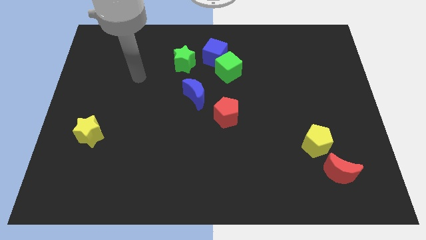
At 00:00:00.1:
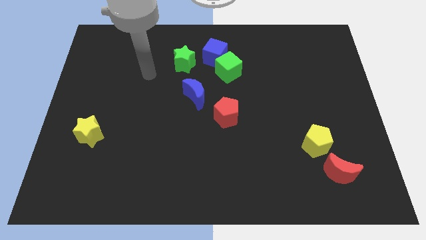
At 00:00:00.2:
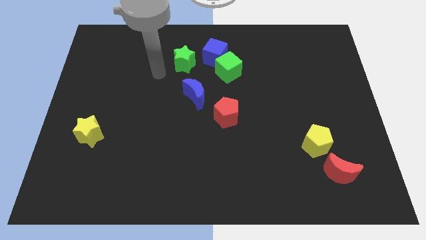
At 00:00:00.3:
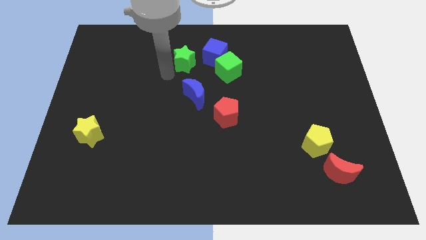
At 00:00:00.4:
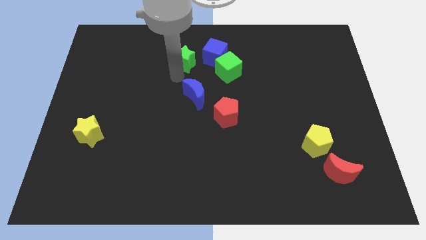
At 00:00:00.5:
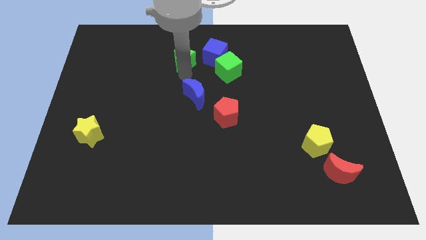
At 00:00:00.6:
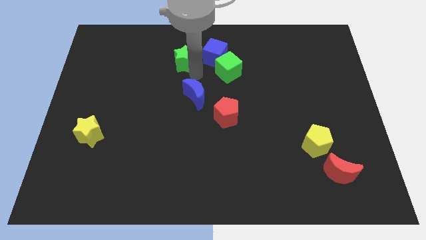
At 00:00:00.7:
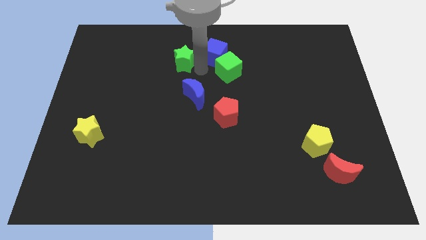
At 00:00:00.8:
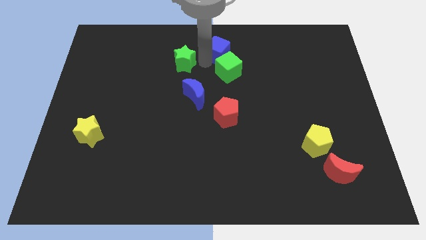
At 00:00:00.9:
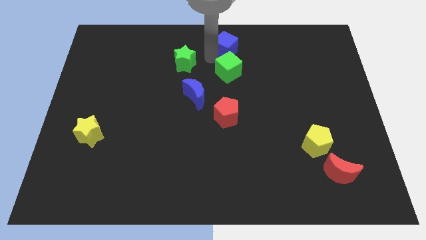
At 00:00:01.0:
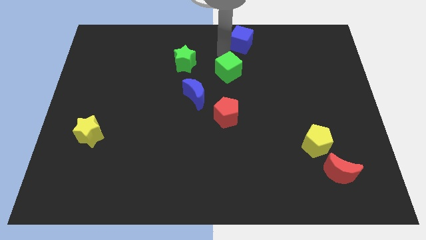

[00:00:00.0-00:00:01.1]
separate the green cube from the blue cube

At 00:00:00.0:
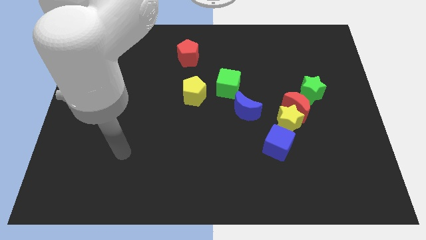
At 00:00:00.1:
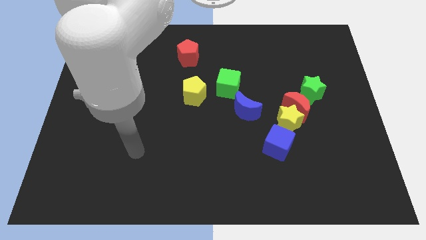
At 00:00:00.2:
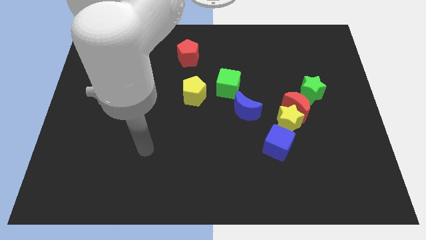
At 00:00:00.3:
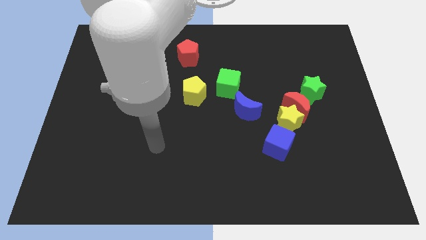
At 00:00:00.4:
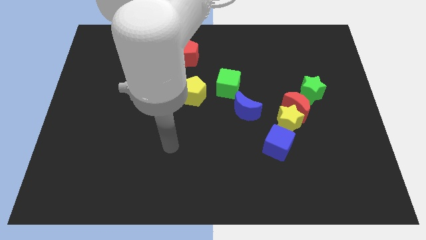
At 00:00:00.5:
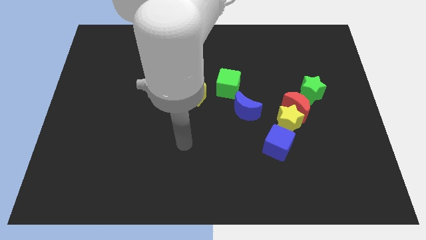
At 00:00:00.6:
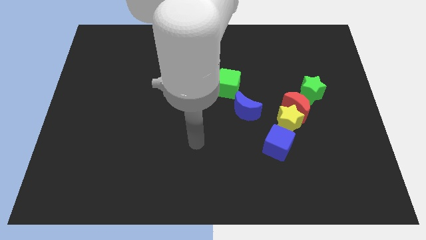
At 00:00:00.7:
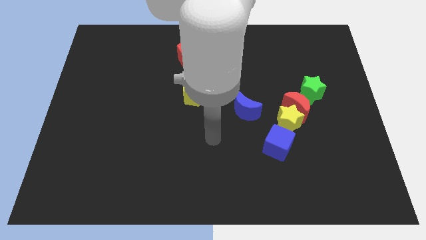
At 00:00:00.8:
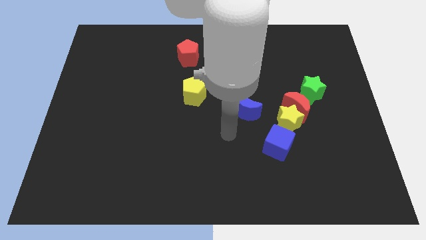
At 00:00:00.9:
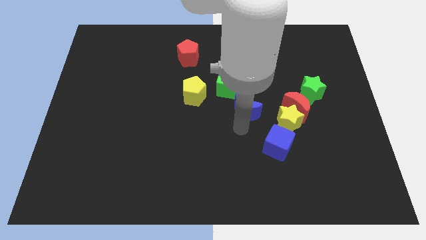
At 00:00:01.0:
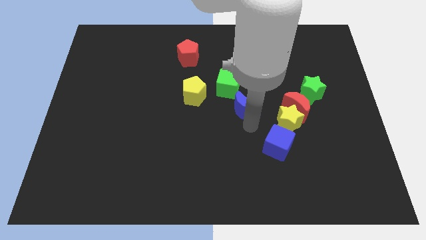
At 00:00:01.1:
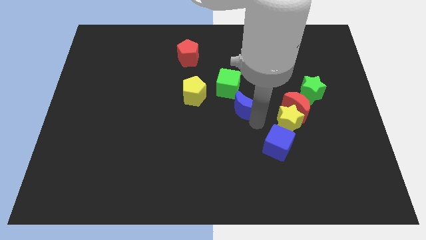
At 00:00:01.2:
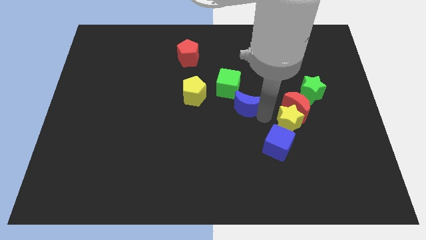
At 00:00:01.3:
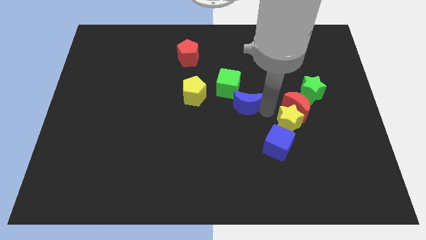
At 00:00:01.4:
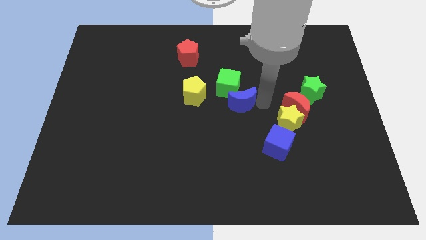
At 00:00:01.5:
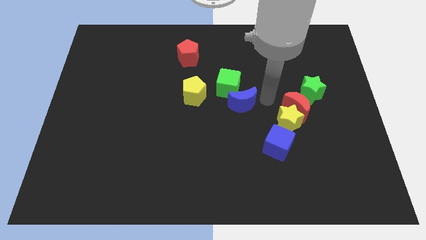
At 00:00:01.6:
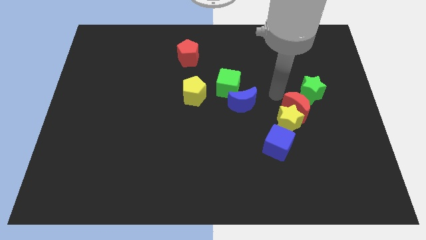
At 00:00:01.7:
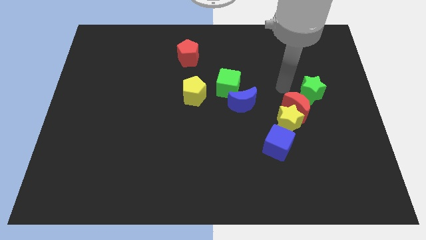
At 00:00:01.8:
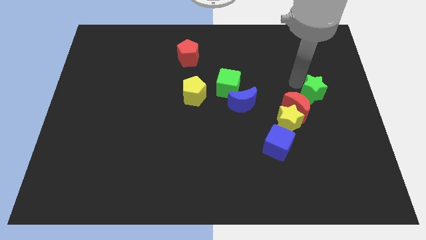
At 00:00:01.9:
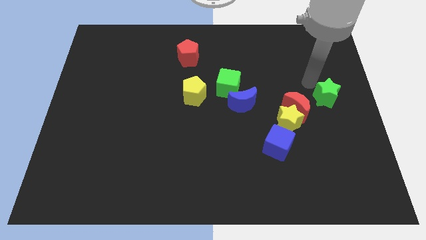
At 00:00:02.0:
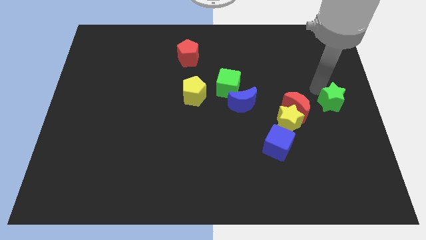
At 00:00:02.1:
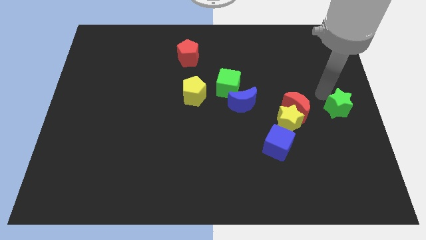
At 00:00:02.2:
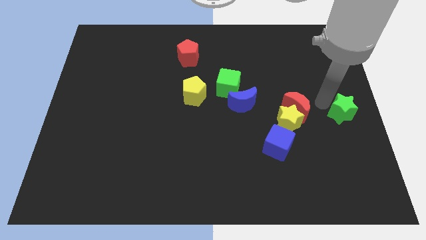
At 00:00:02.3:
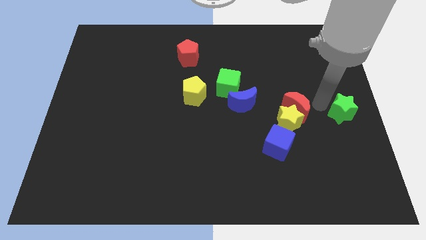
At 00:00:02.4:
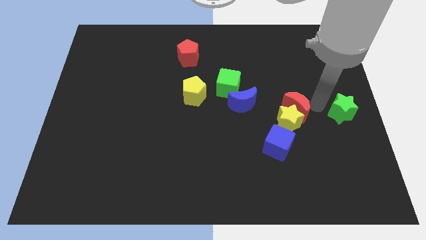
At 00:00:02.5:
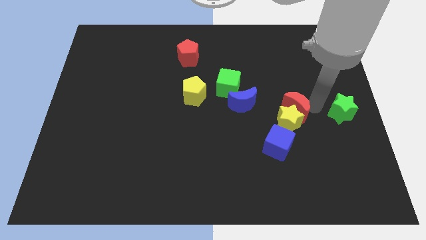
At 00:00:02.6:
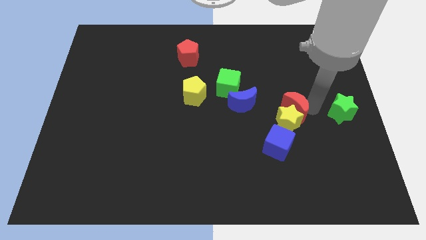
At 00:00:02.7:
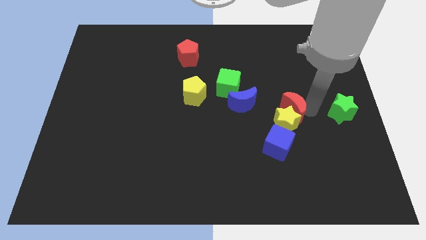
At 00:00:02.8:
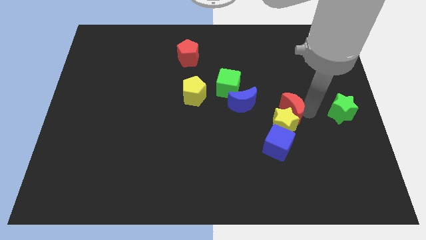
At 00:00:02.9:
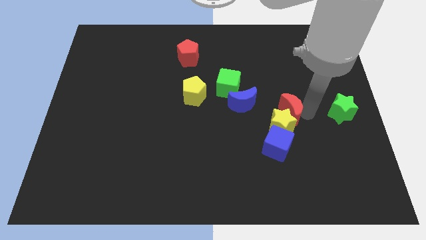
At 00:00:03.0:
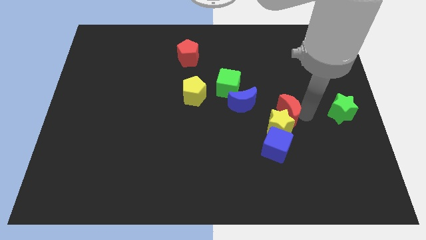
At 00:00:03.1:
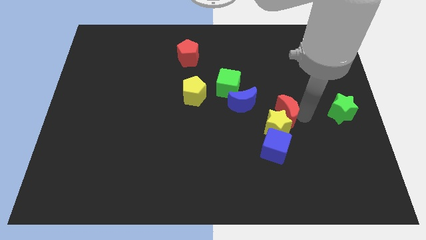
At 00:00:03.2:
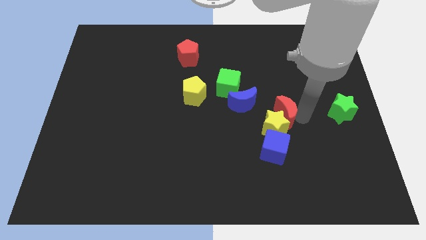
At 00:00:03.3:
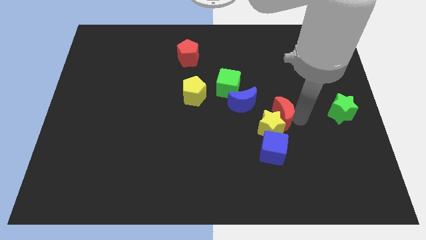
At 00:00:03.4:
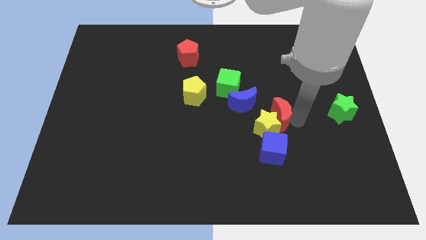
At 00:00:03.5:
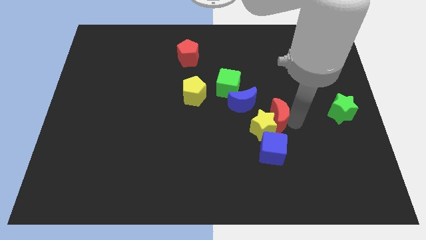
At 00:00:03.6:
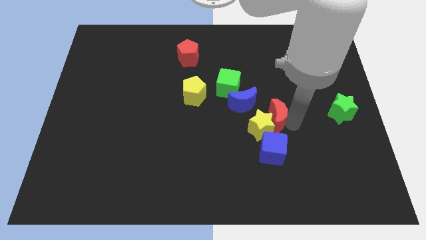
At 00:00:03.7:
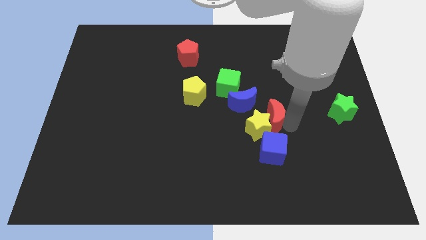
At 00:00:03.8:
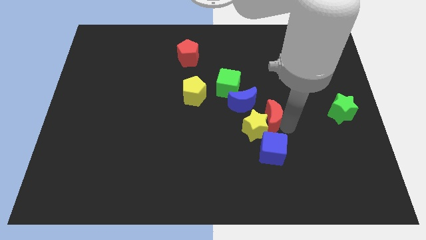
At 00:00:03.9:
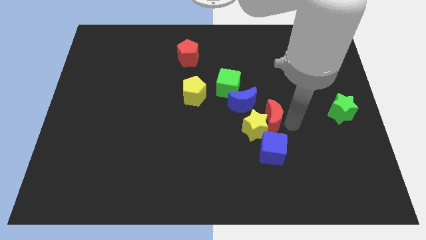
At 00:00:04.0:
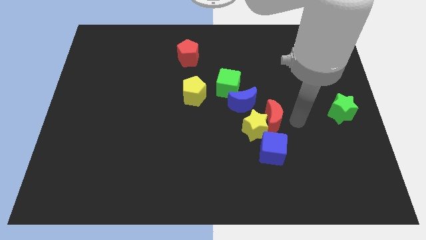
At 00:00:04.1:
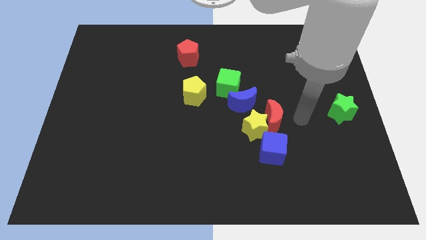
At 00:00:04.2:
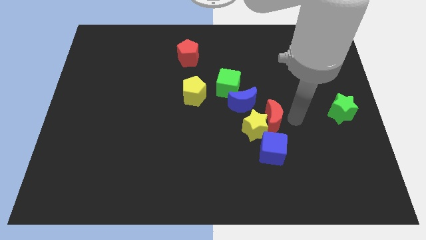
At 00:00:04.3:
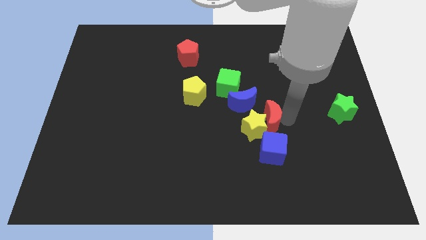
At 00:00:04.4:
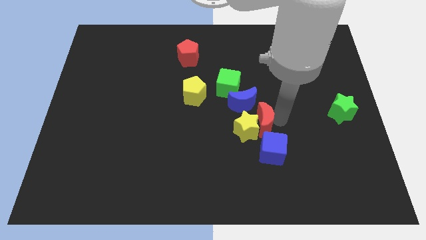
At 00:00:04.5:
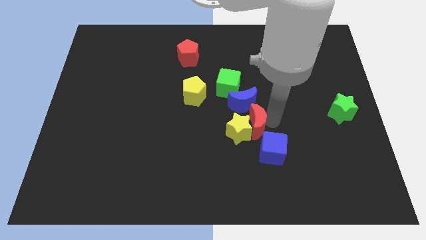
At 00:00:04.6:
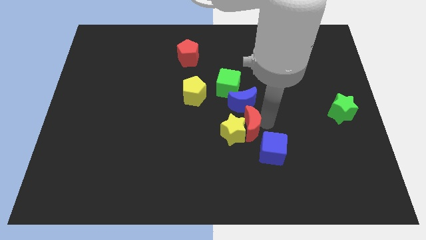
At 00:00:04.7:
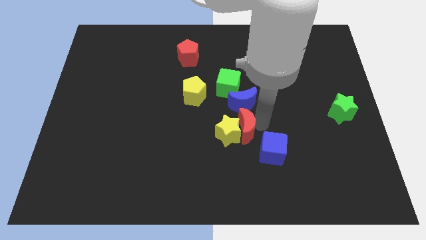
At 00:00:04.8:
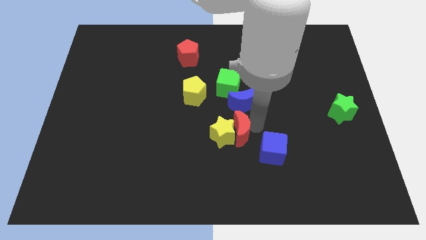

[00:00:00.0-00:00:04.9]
separate the red moon from the yellow star and green star

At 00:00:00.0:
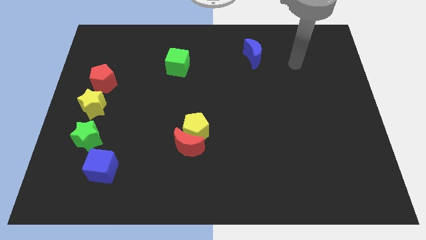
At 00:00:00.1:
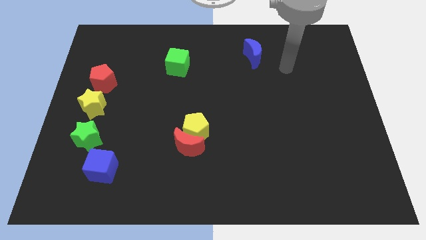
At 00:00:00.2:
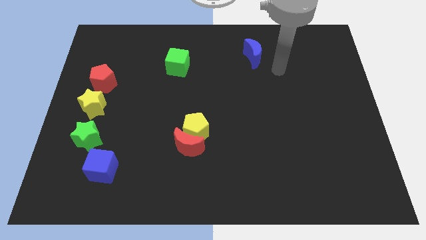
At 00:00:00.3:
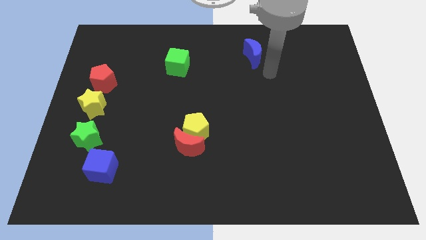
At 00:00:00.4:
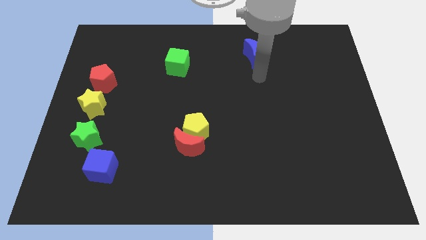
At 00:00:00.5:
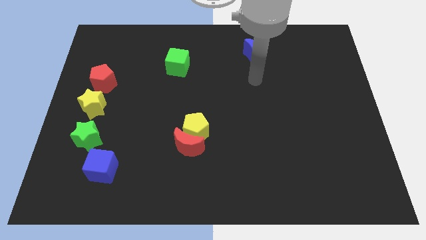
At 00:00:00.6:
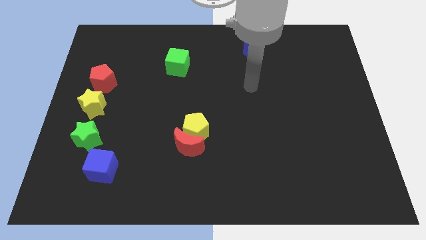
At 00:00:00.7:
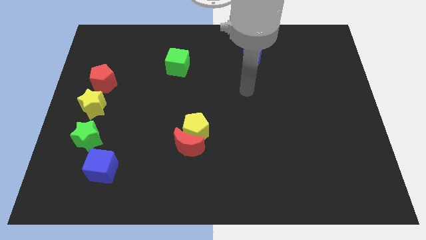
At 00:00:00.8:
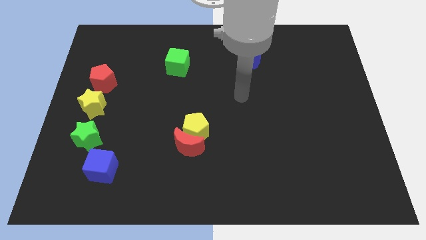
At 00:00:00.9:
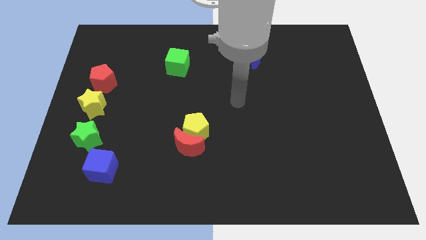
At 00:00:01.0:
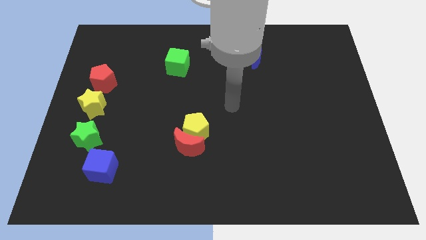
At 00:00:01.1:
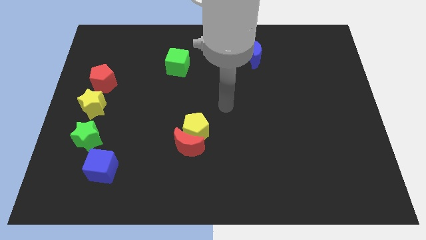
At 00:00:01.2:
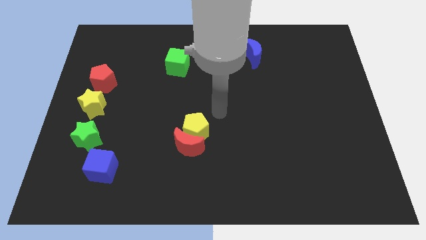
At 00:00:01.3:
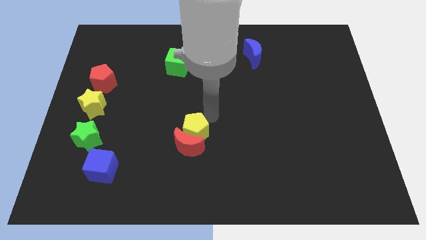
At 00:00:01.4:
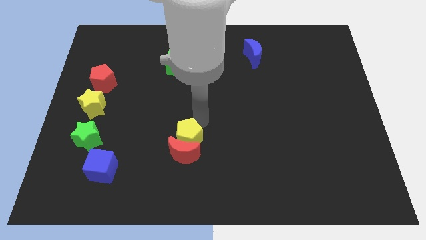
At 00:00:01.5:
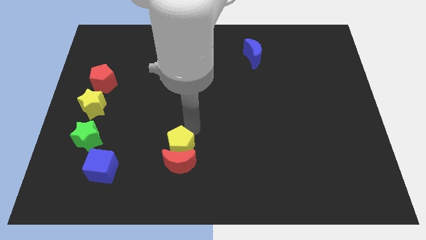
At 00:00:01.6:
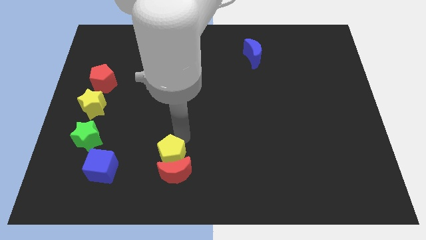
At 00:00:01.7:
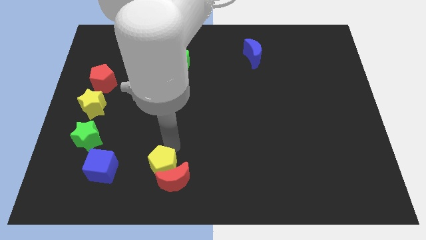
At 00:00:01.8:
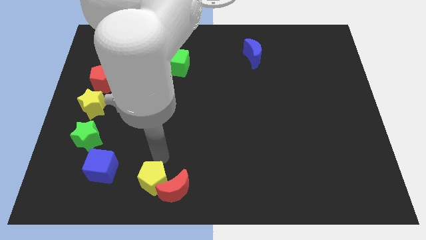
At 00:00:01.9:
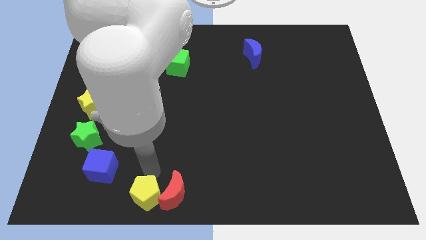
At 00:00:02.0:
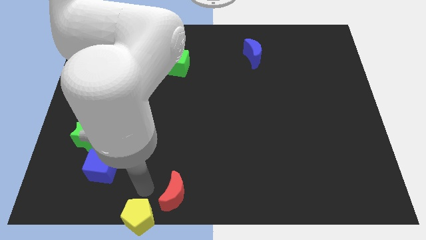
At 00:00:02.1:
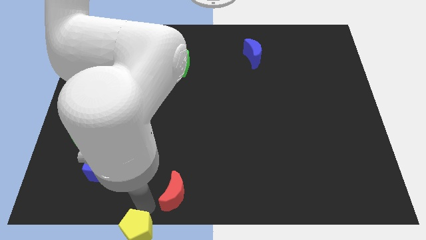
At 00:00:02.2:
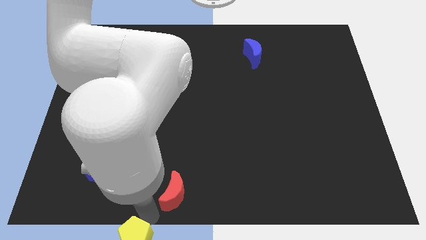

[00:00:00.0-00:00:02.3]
move the red moon away from the yellow pentagon

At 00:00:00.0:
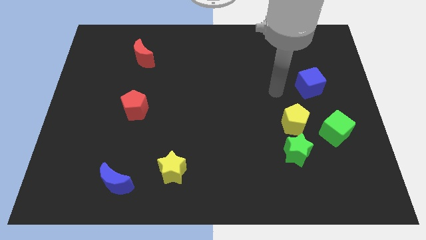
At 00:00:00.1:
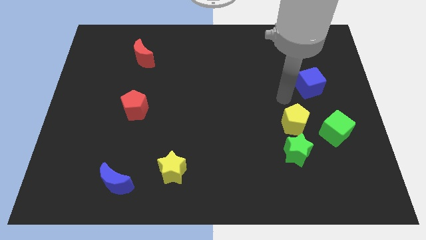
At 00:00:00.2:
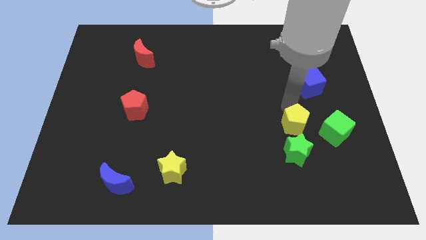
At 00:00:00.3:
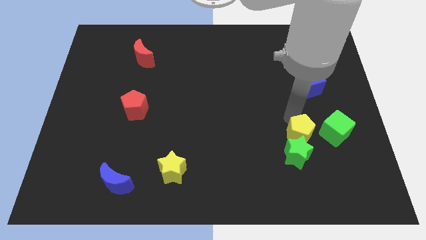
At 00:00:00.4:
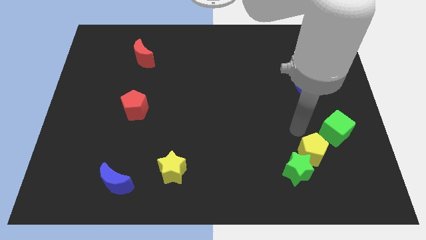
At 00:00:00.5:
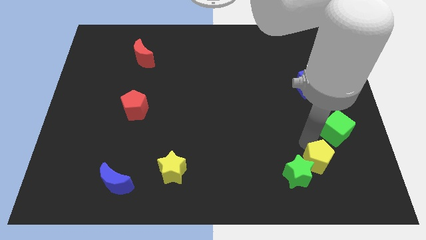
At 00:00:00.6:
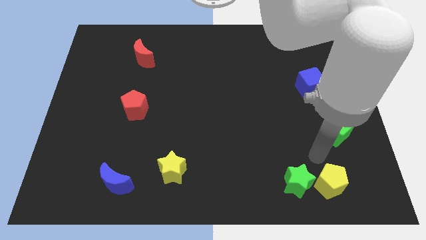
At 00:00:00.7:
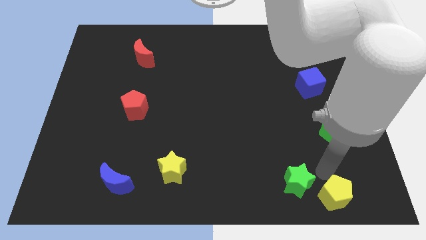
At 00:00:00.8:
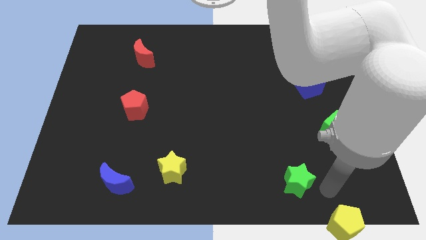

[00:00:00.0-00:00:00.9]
separate the green star from the yellow pentagon
